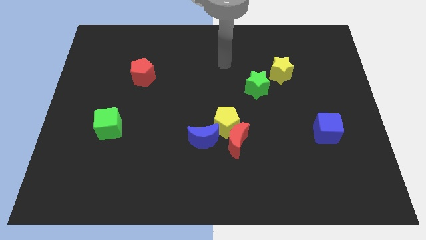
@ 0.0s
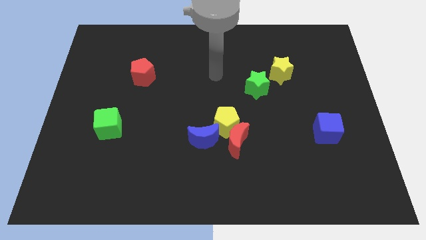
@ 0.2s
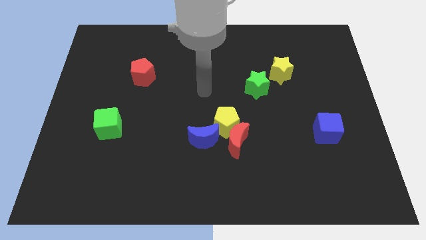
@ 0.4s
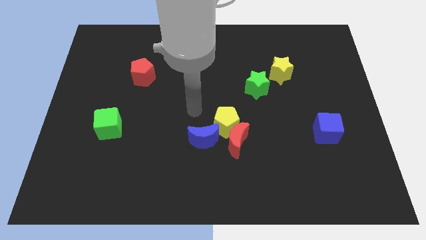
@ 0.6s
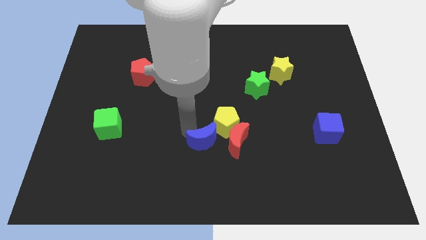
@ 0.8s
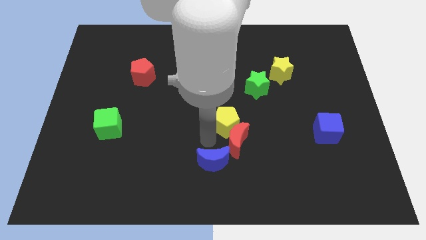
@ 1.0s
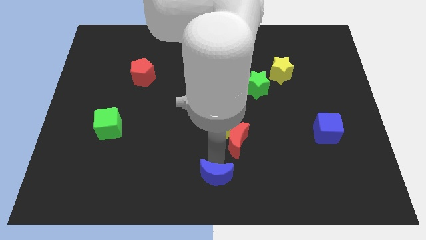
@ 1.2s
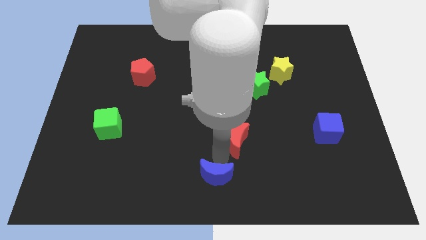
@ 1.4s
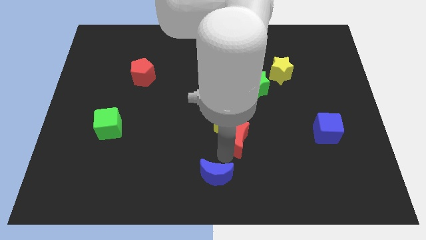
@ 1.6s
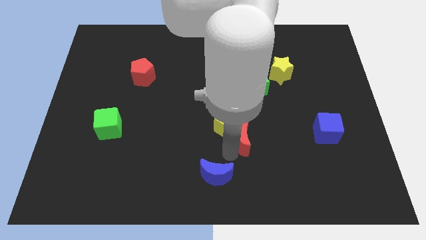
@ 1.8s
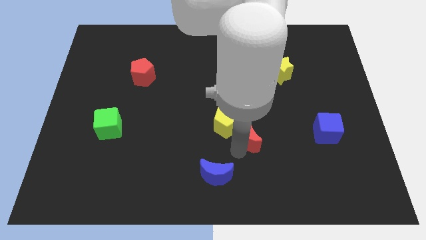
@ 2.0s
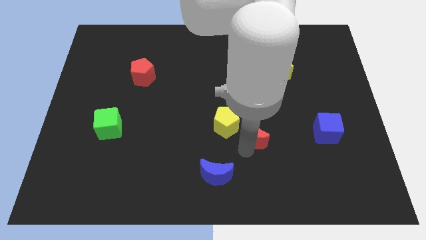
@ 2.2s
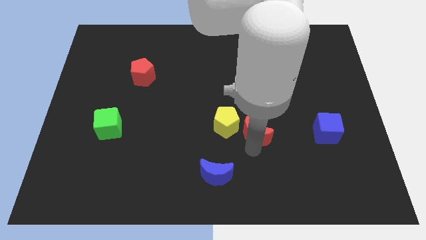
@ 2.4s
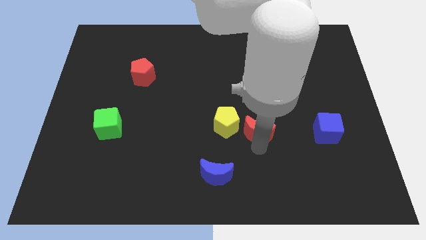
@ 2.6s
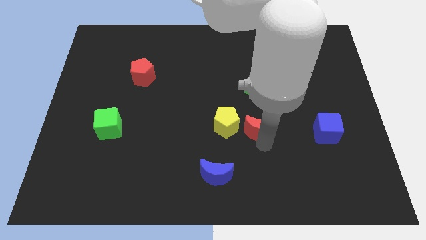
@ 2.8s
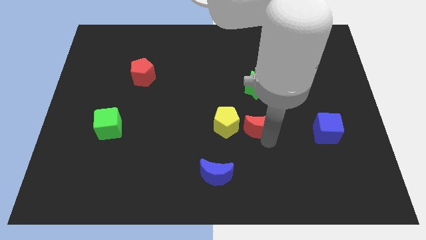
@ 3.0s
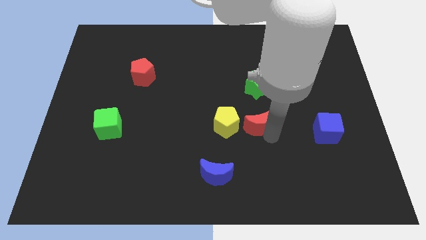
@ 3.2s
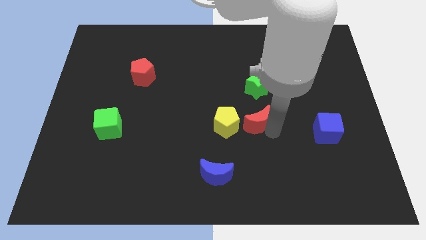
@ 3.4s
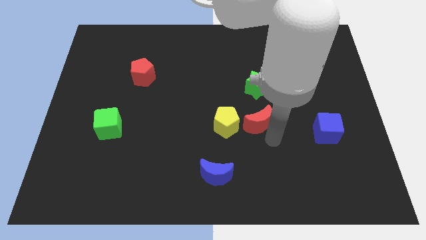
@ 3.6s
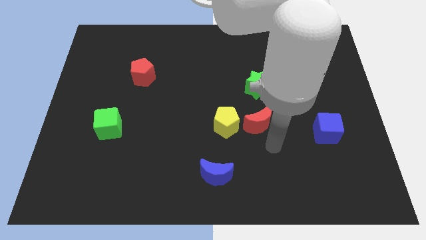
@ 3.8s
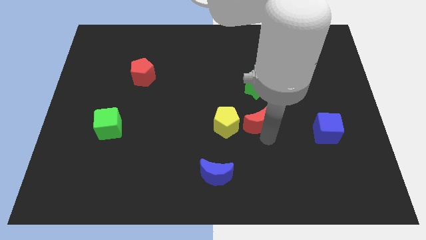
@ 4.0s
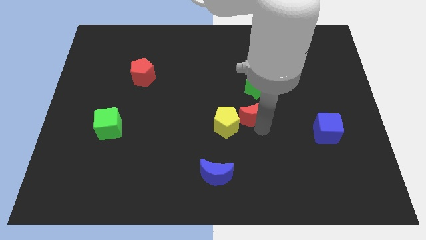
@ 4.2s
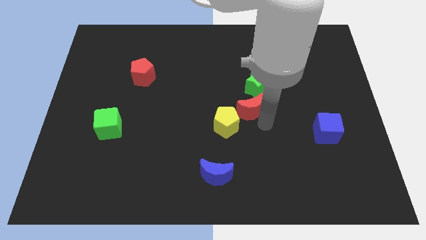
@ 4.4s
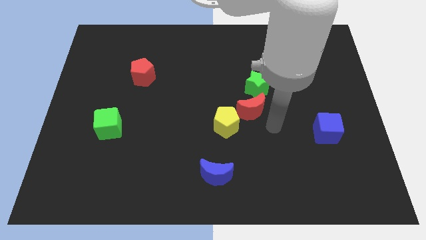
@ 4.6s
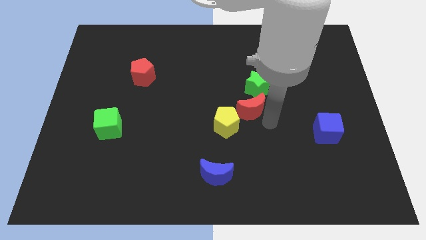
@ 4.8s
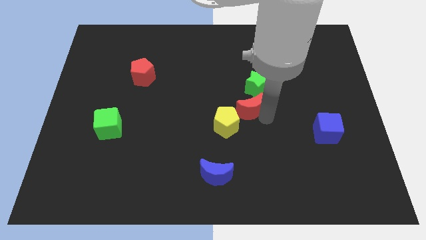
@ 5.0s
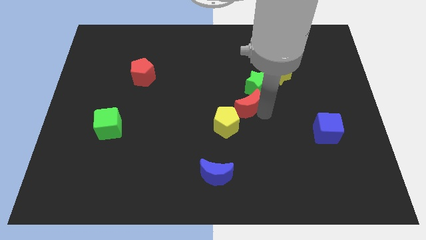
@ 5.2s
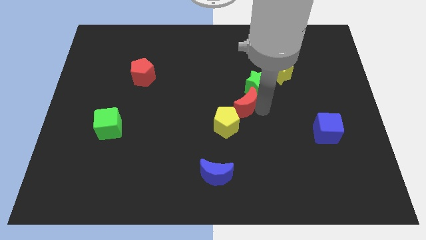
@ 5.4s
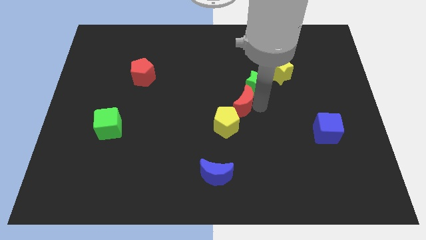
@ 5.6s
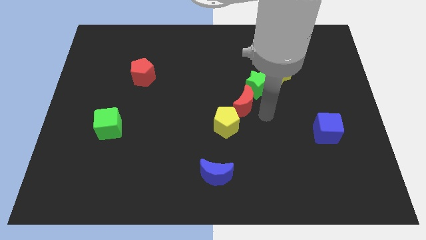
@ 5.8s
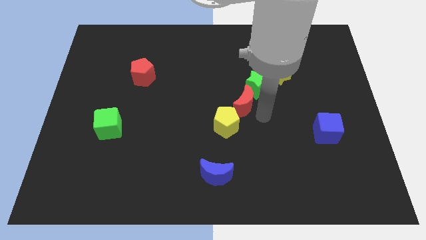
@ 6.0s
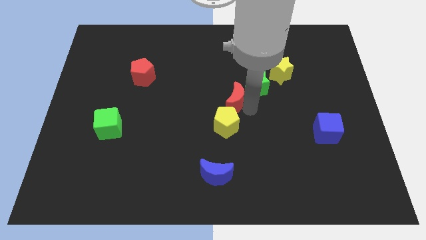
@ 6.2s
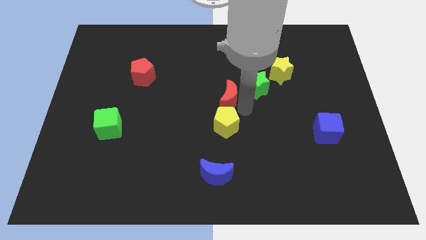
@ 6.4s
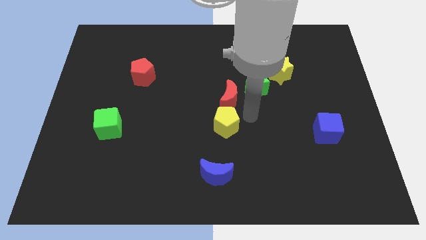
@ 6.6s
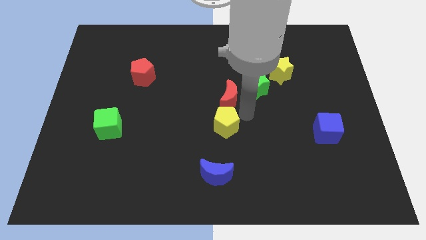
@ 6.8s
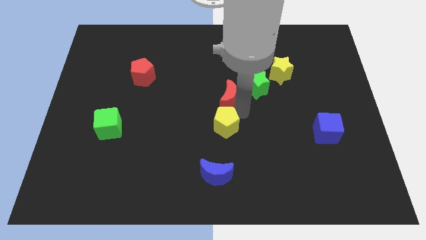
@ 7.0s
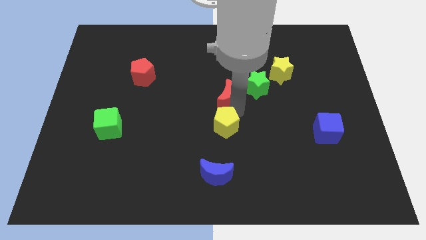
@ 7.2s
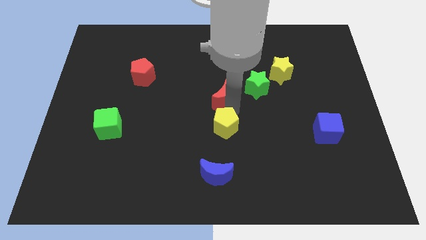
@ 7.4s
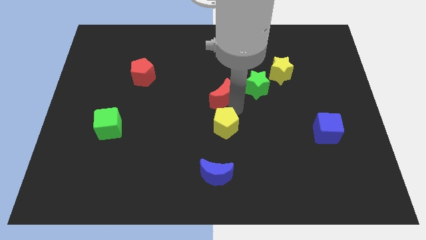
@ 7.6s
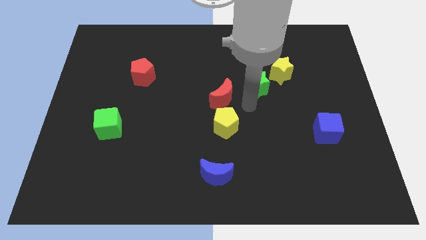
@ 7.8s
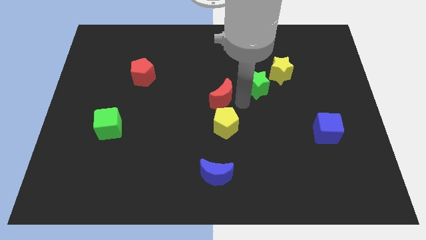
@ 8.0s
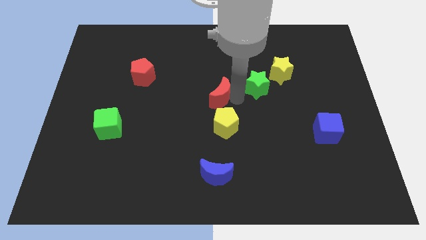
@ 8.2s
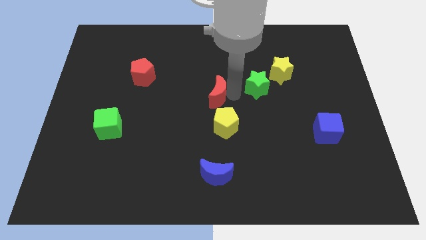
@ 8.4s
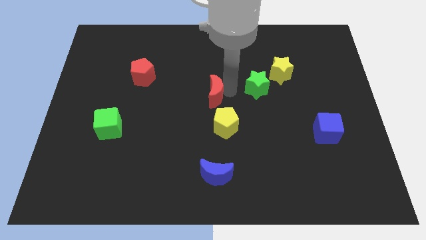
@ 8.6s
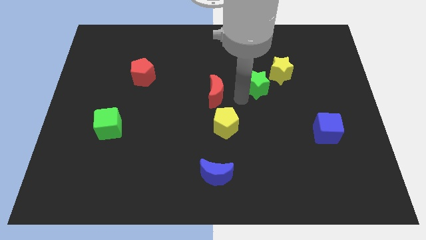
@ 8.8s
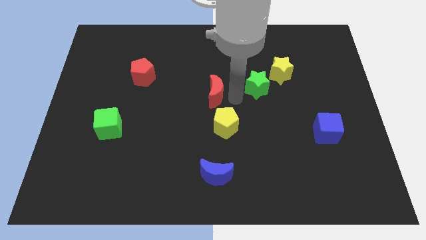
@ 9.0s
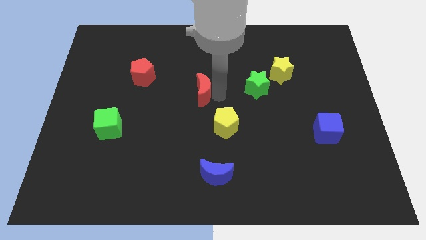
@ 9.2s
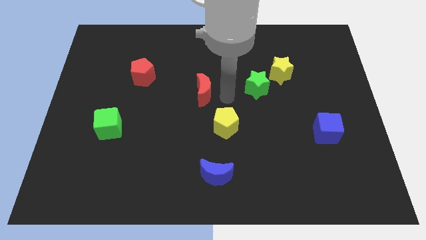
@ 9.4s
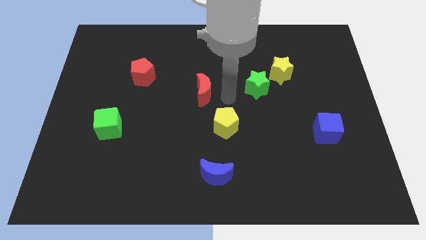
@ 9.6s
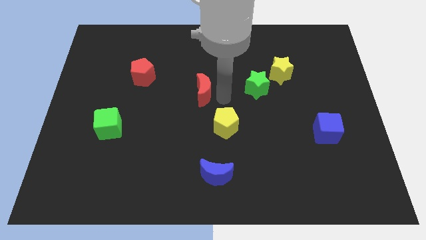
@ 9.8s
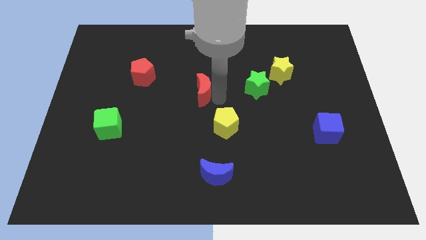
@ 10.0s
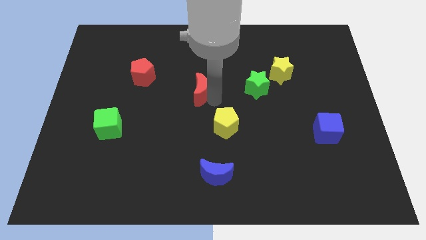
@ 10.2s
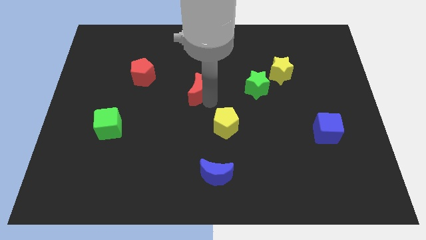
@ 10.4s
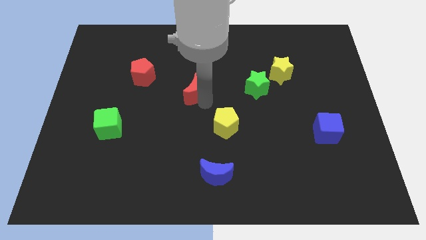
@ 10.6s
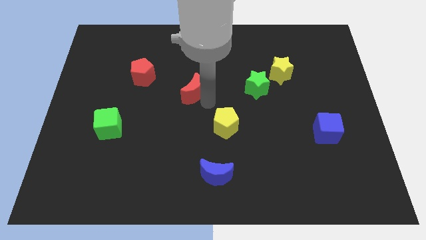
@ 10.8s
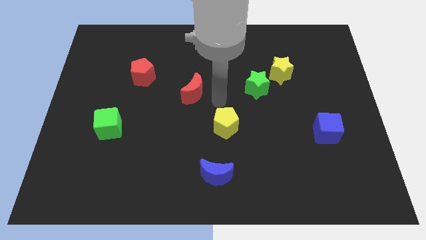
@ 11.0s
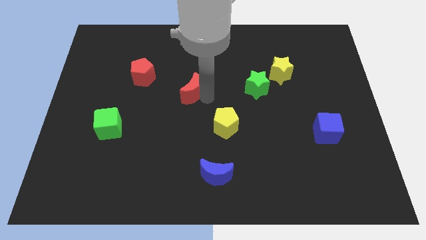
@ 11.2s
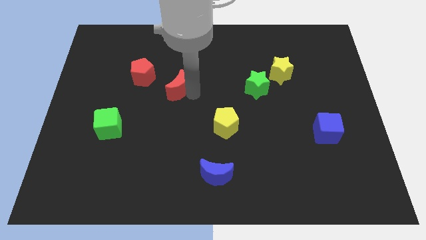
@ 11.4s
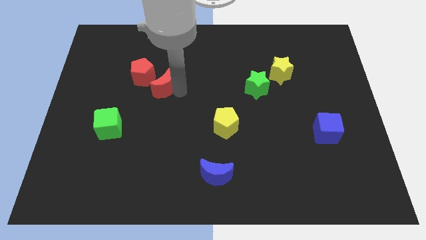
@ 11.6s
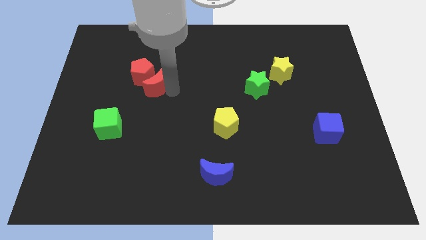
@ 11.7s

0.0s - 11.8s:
push the red moon close to the red pentagon

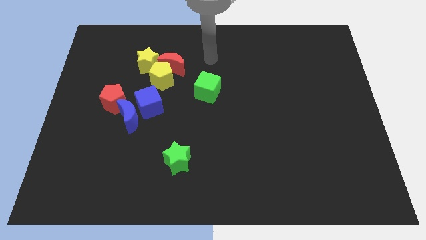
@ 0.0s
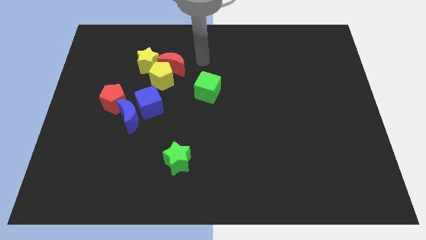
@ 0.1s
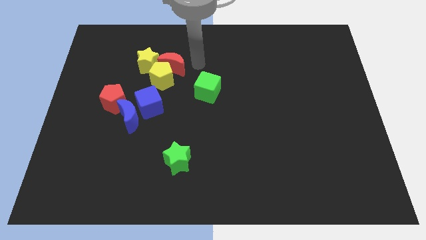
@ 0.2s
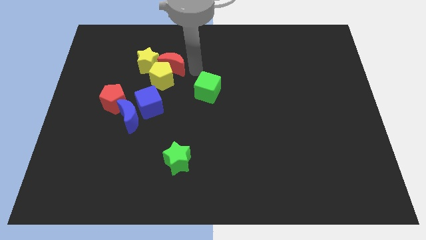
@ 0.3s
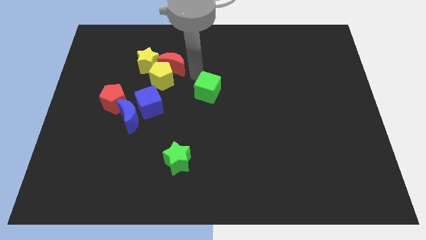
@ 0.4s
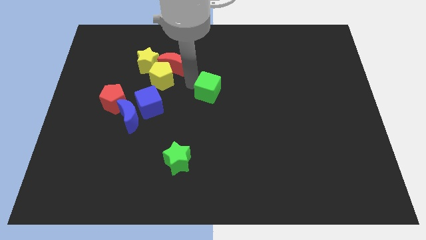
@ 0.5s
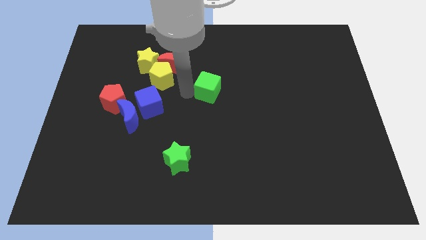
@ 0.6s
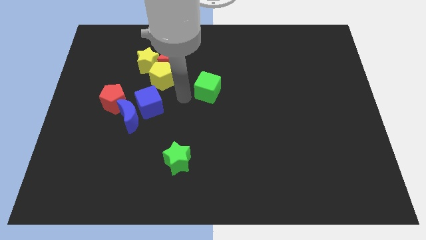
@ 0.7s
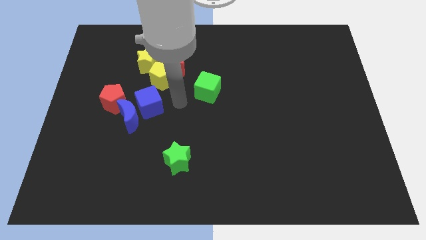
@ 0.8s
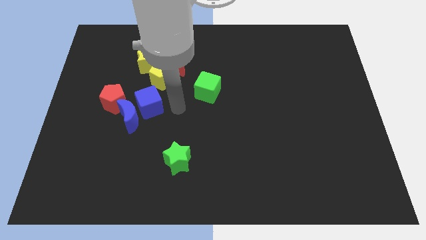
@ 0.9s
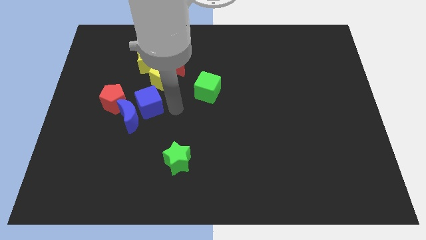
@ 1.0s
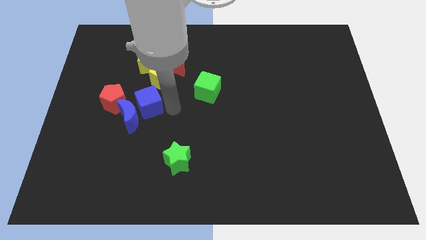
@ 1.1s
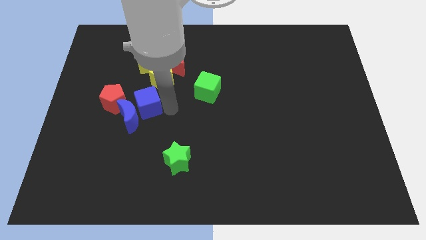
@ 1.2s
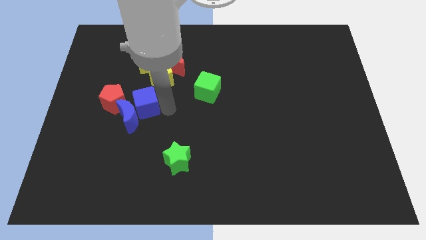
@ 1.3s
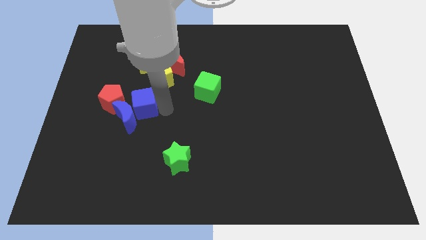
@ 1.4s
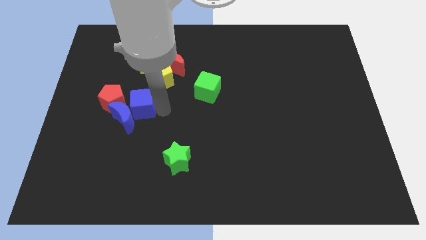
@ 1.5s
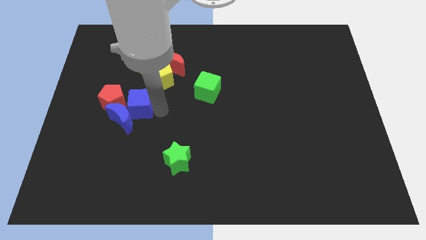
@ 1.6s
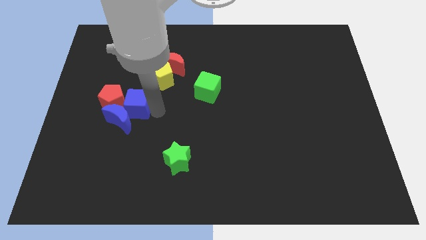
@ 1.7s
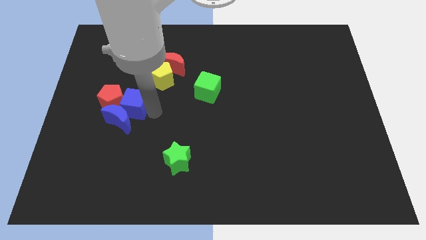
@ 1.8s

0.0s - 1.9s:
move the blue cube towards the red pentagon

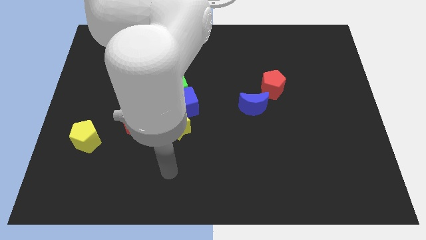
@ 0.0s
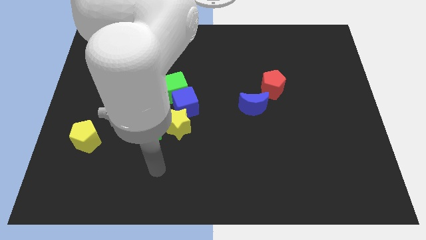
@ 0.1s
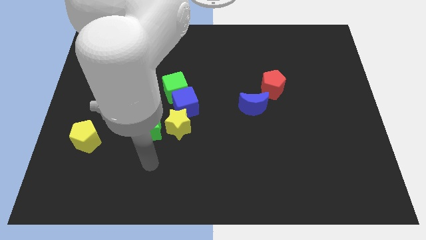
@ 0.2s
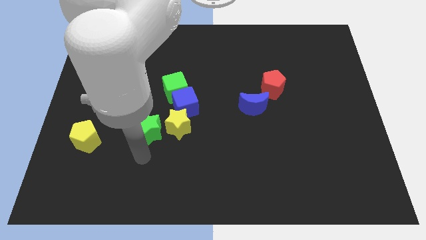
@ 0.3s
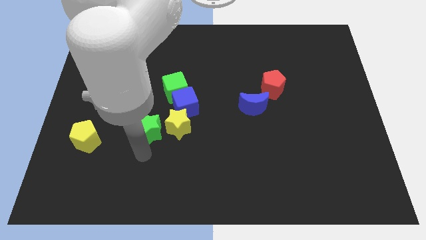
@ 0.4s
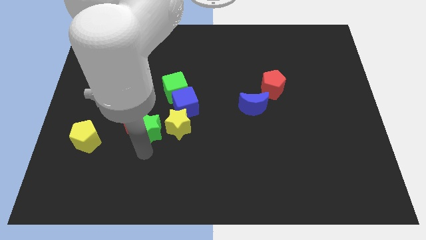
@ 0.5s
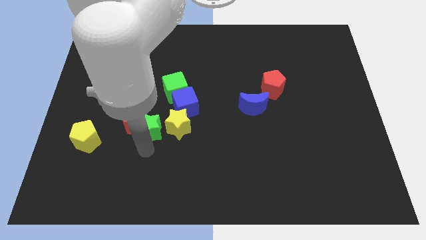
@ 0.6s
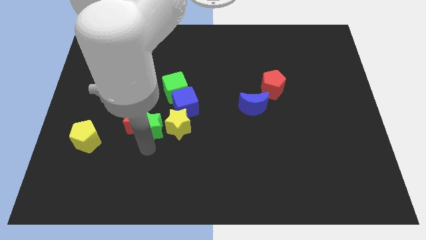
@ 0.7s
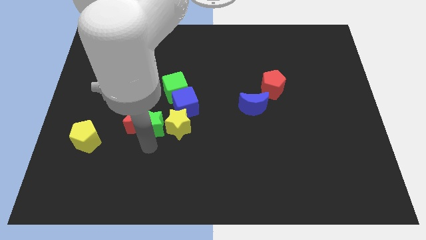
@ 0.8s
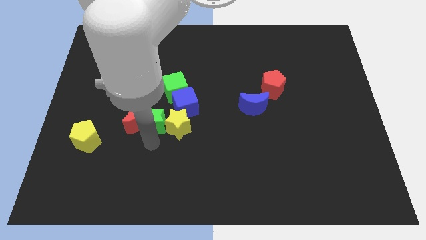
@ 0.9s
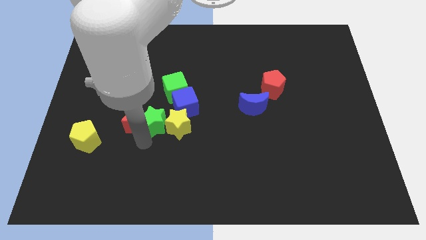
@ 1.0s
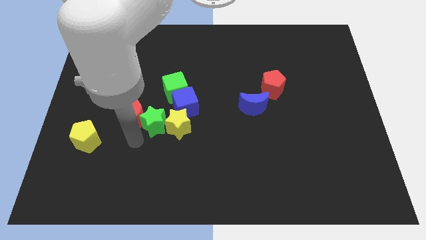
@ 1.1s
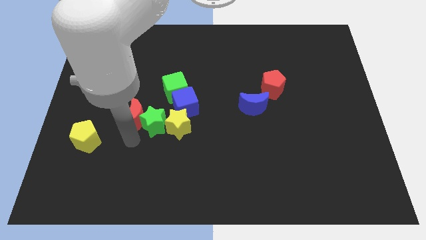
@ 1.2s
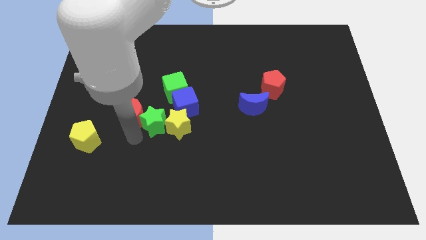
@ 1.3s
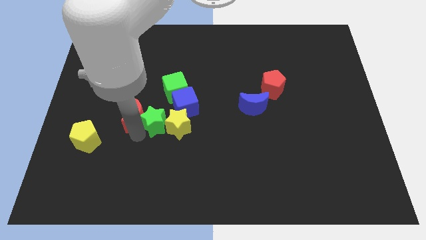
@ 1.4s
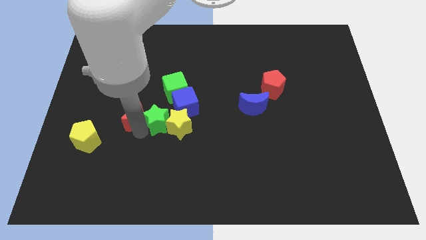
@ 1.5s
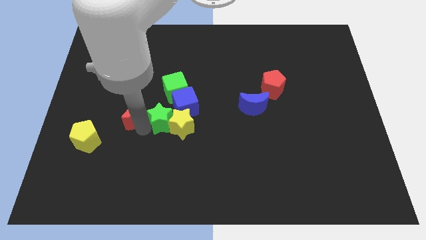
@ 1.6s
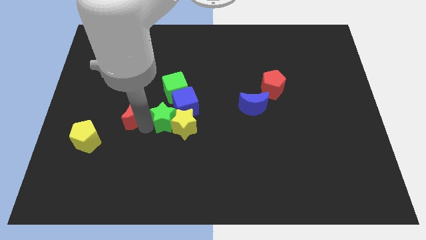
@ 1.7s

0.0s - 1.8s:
move the green star next to the blue cube
